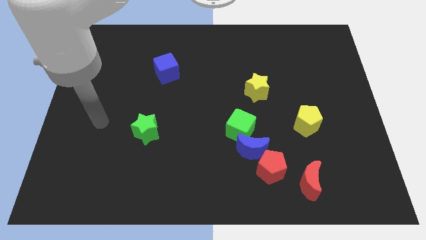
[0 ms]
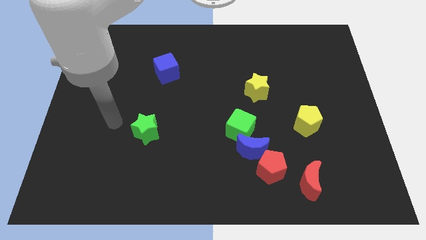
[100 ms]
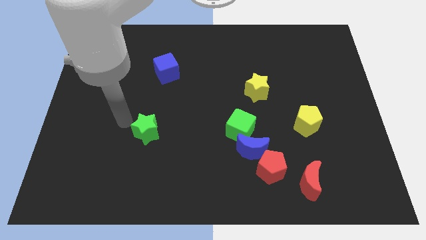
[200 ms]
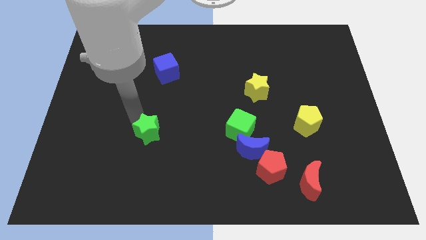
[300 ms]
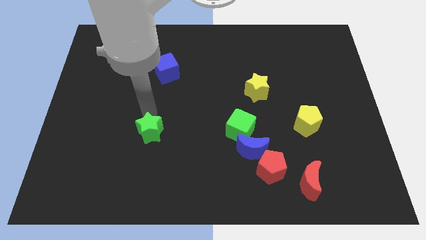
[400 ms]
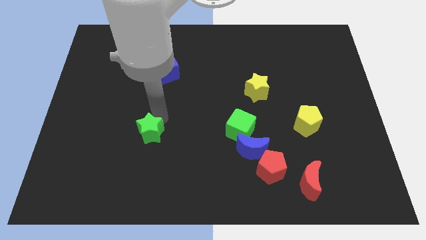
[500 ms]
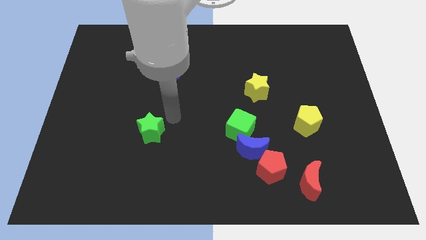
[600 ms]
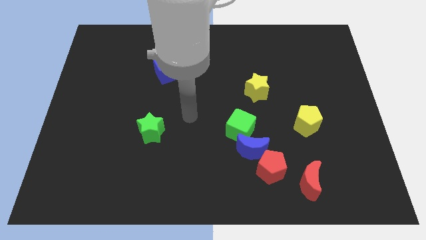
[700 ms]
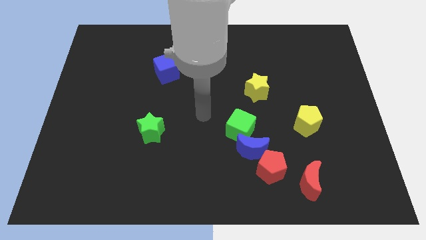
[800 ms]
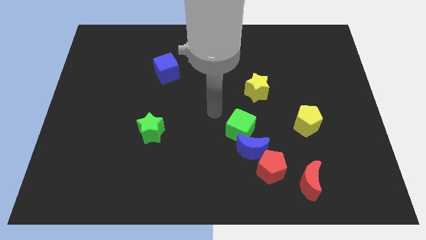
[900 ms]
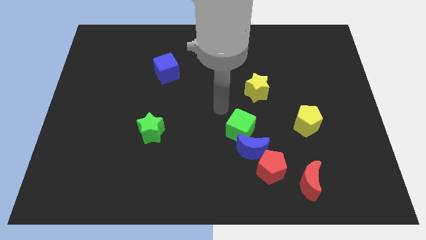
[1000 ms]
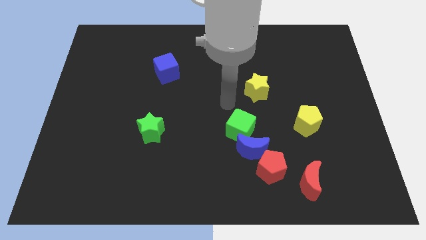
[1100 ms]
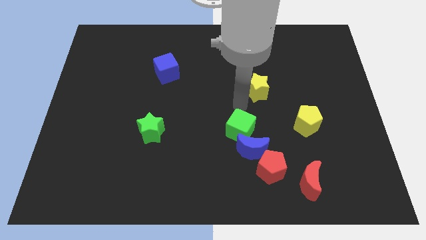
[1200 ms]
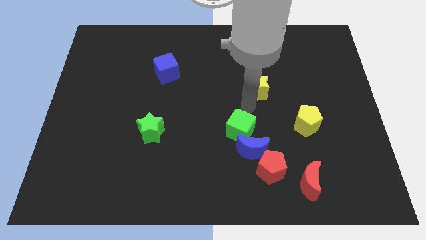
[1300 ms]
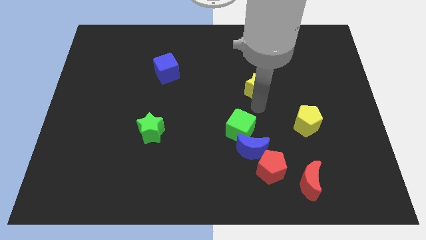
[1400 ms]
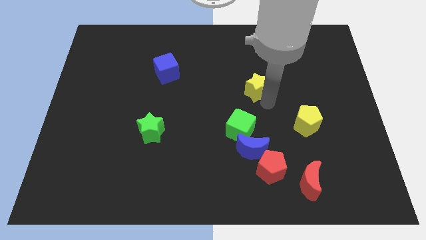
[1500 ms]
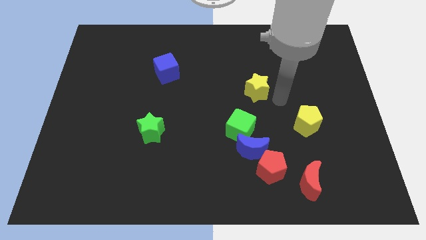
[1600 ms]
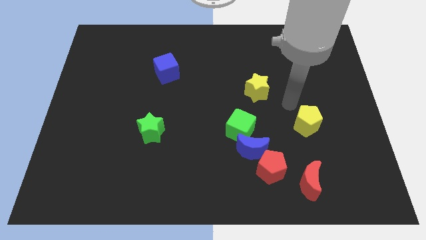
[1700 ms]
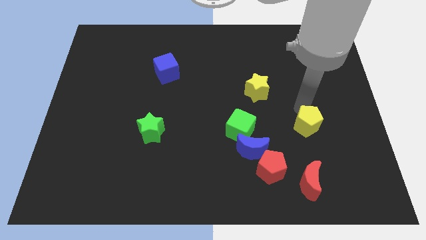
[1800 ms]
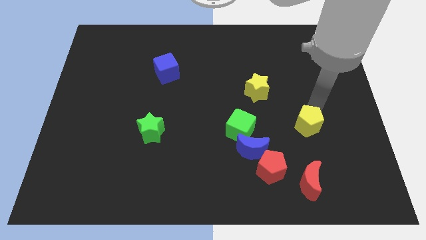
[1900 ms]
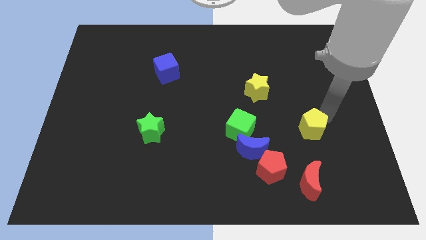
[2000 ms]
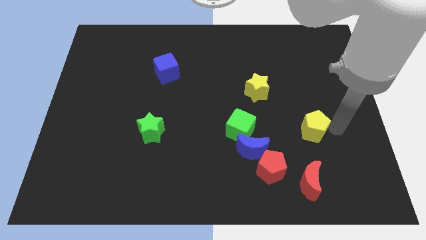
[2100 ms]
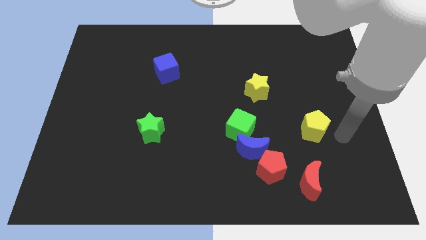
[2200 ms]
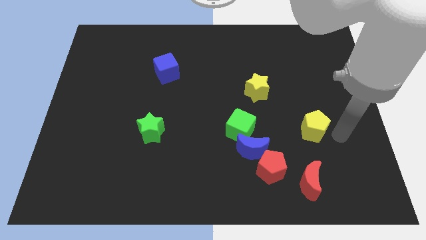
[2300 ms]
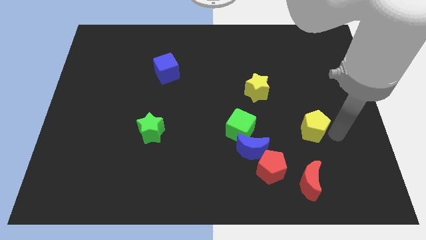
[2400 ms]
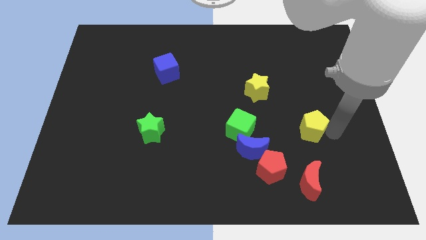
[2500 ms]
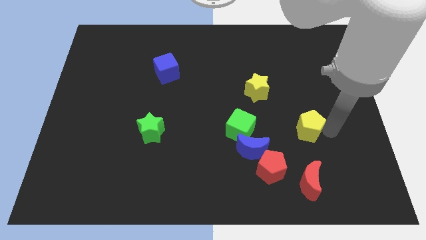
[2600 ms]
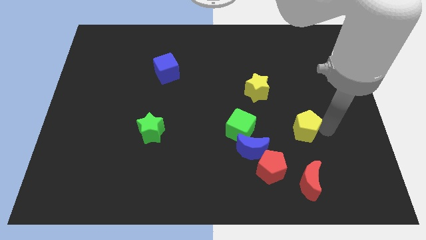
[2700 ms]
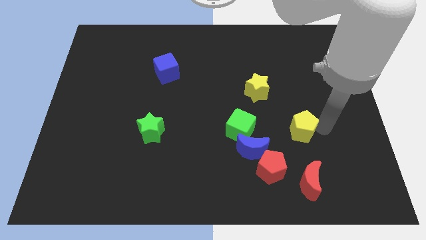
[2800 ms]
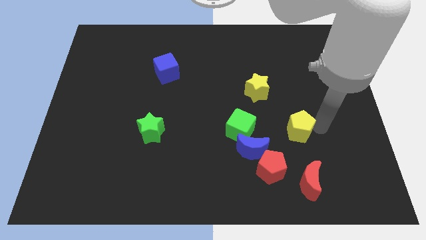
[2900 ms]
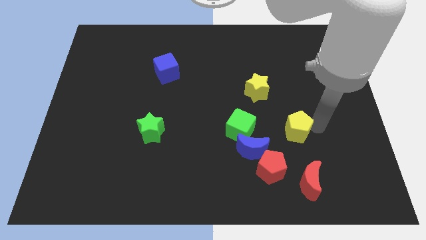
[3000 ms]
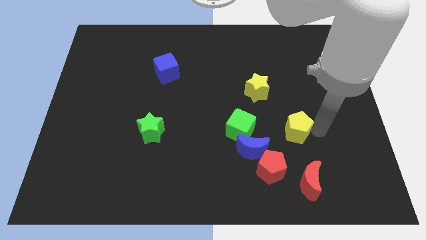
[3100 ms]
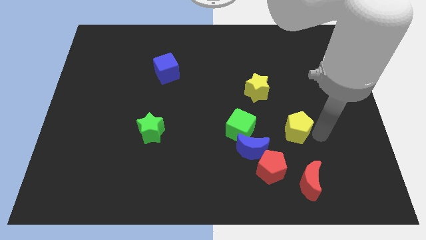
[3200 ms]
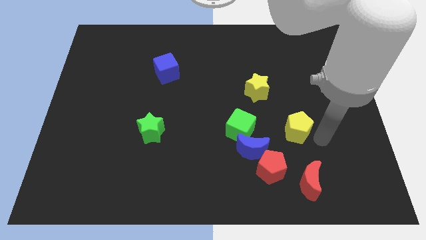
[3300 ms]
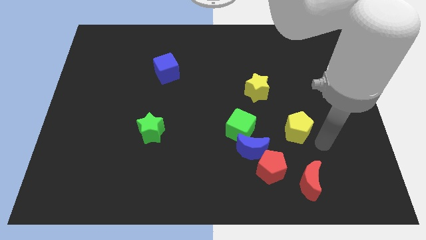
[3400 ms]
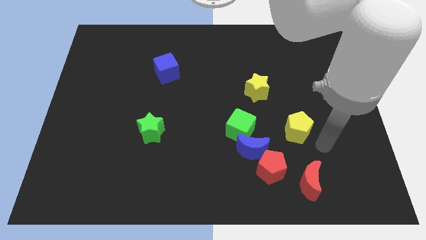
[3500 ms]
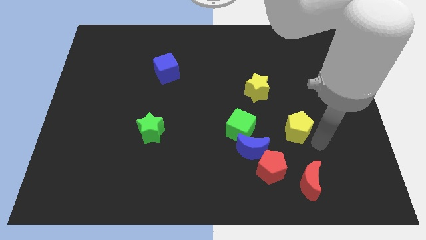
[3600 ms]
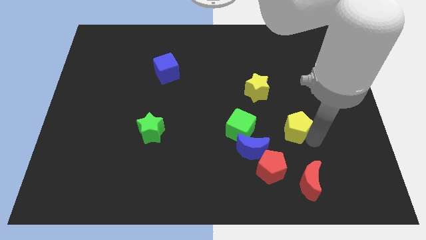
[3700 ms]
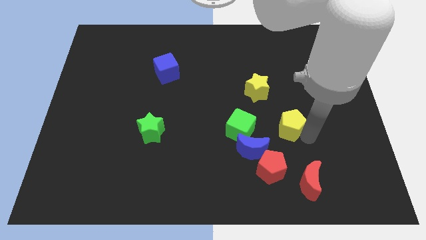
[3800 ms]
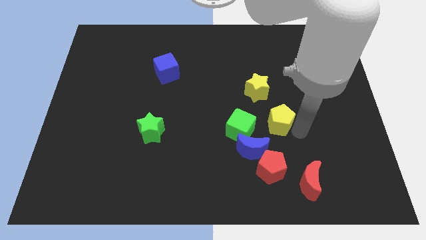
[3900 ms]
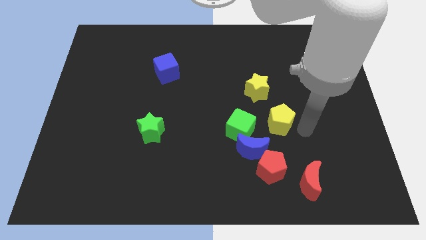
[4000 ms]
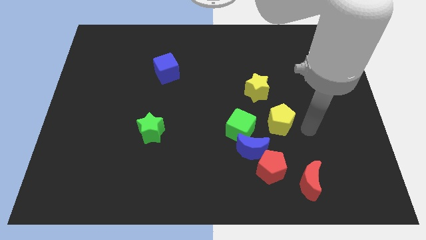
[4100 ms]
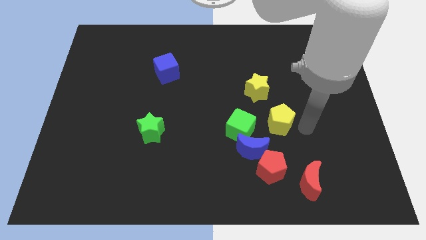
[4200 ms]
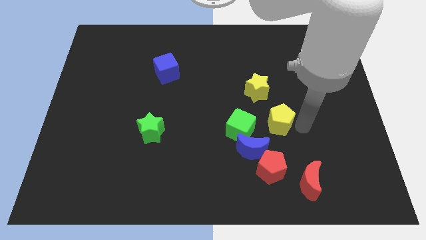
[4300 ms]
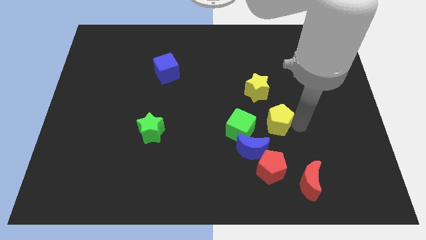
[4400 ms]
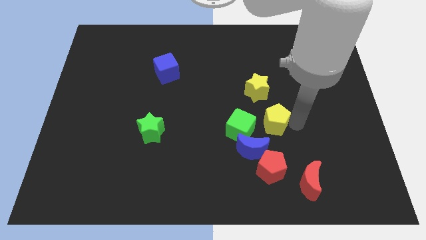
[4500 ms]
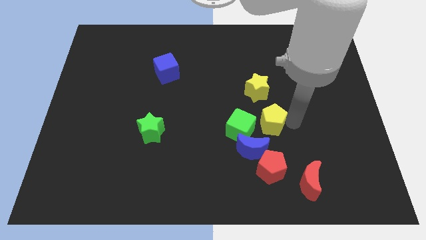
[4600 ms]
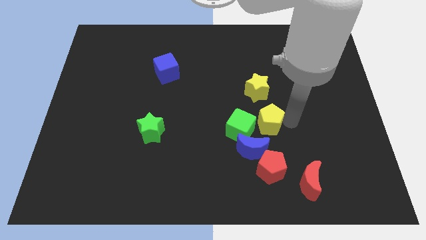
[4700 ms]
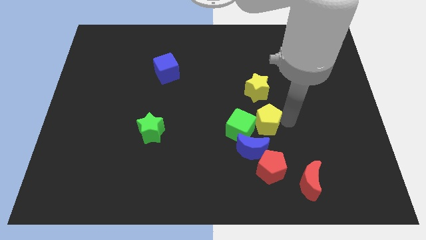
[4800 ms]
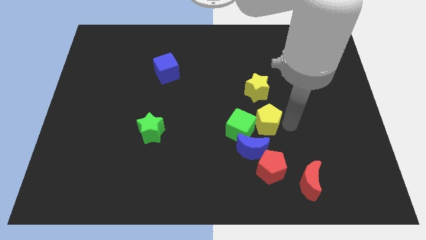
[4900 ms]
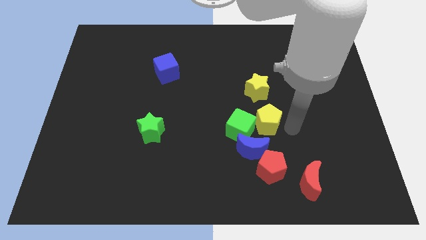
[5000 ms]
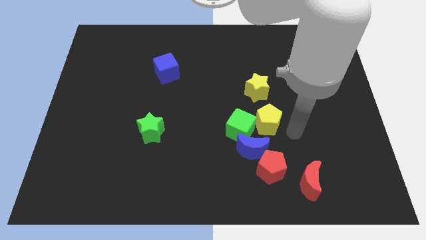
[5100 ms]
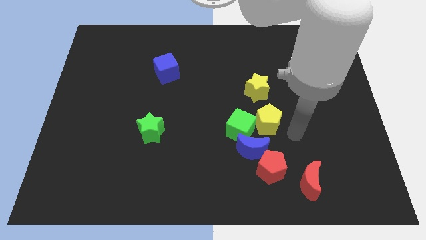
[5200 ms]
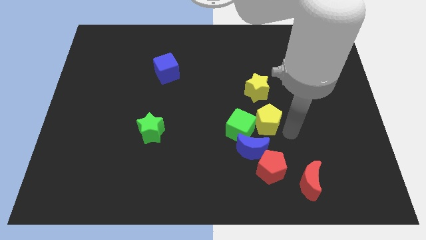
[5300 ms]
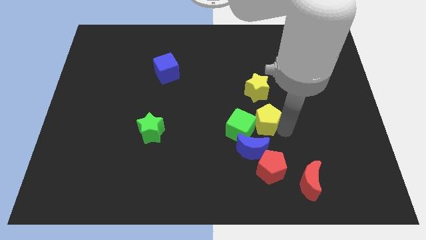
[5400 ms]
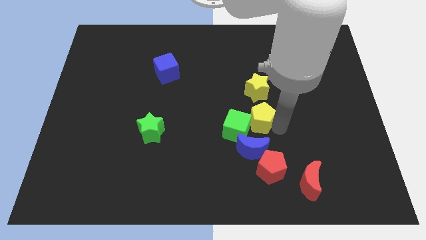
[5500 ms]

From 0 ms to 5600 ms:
move the yellow pentagon to the center

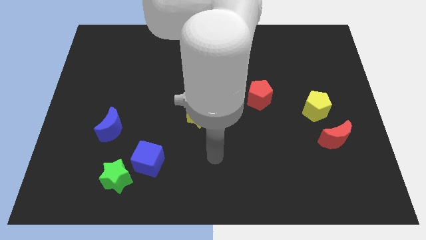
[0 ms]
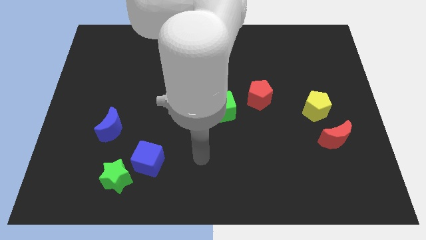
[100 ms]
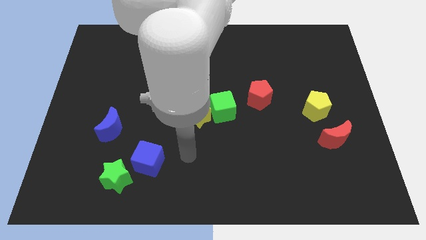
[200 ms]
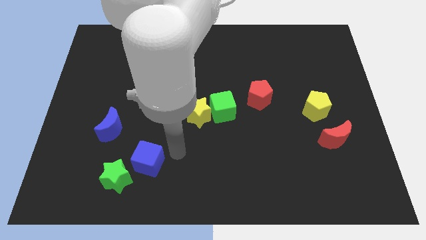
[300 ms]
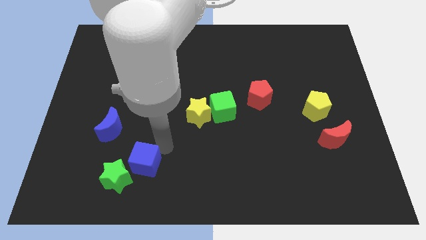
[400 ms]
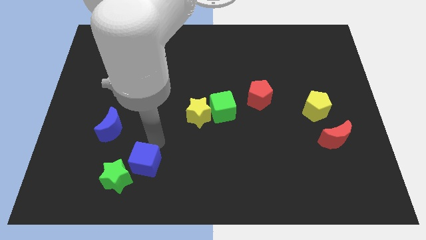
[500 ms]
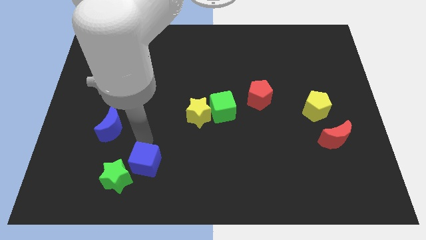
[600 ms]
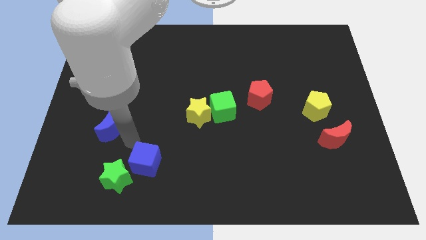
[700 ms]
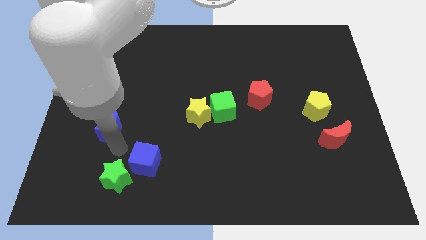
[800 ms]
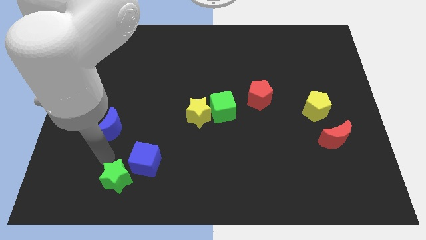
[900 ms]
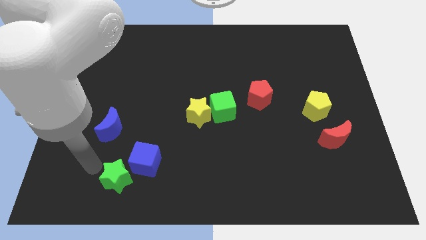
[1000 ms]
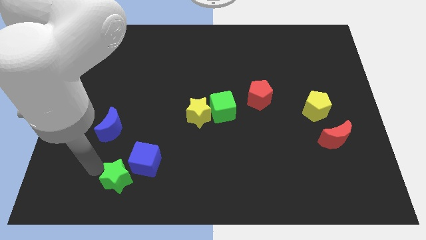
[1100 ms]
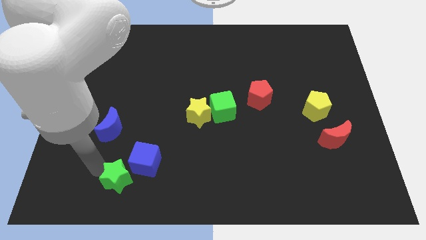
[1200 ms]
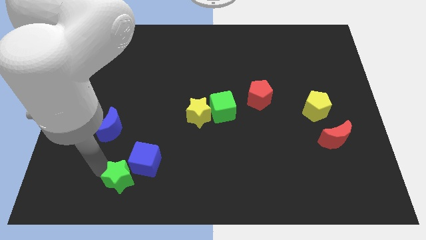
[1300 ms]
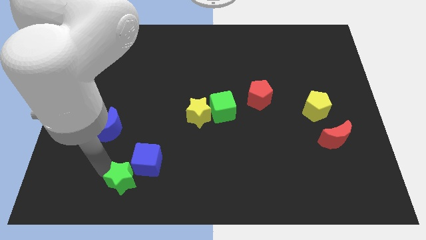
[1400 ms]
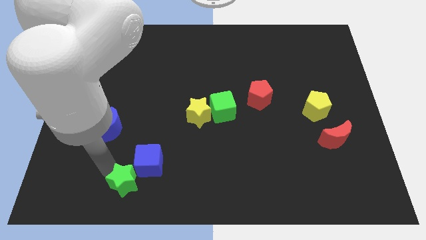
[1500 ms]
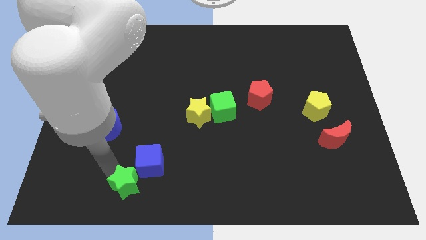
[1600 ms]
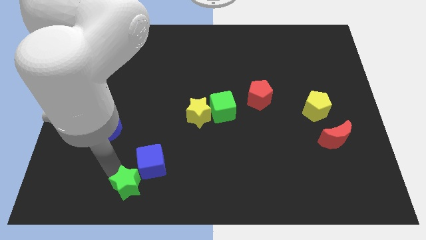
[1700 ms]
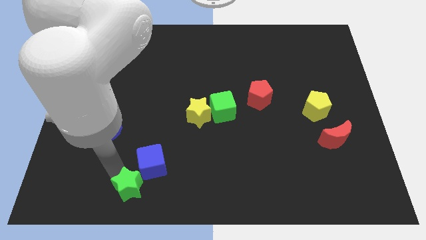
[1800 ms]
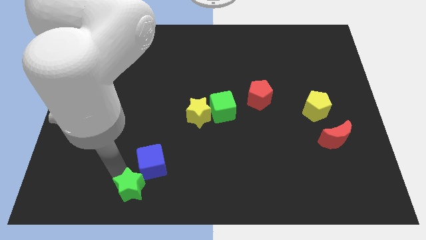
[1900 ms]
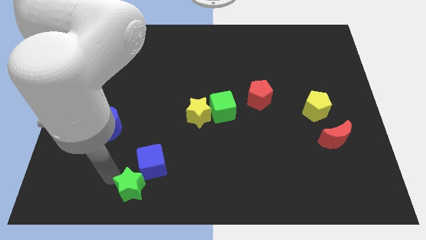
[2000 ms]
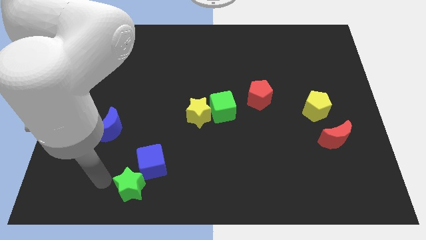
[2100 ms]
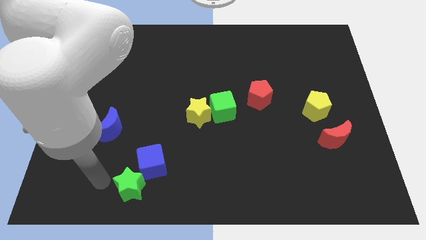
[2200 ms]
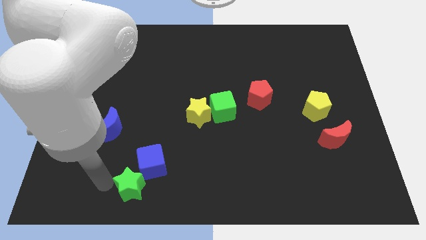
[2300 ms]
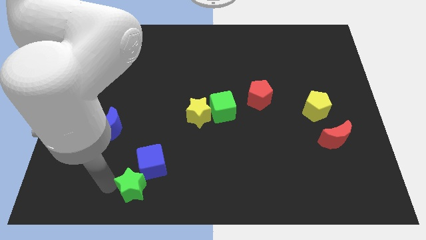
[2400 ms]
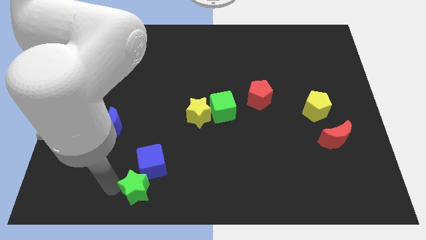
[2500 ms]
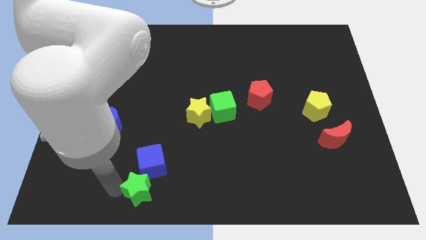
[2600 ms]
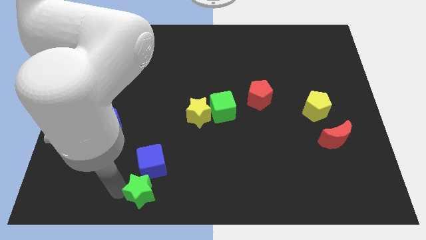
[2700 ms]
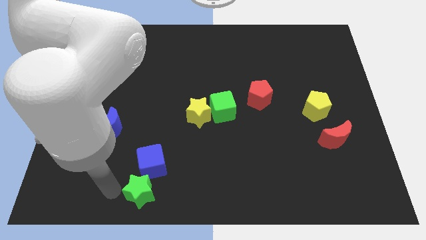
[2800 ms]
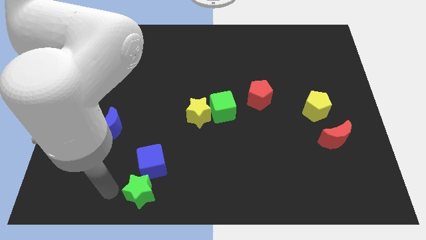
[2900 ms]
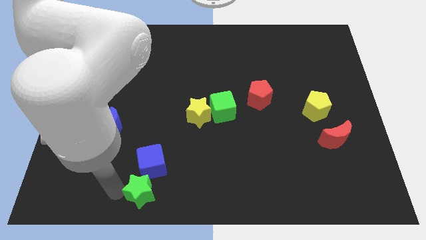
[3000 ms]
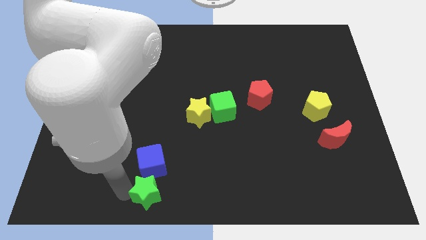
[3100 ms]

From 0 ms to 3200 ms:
slide the green star to the bottom
